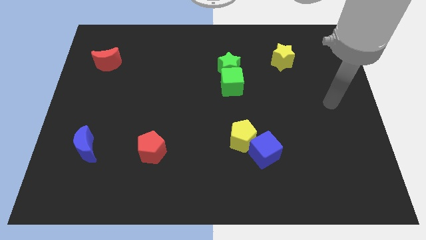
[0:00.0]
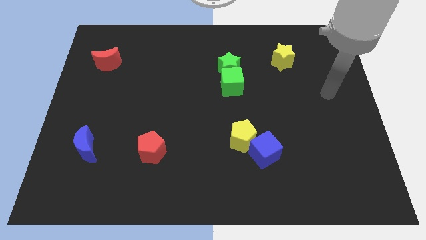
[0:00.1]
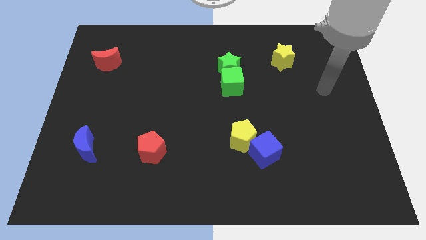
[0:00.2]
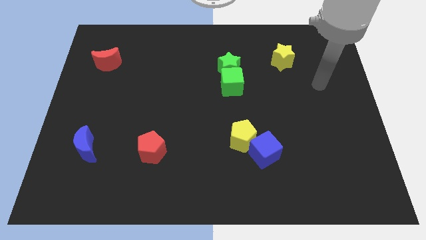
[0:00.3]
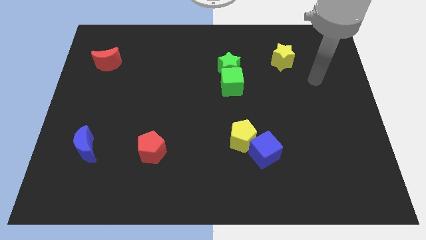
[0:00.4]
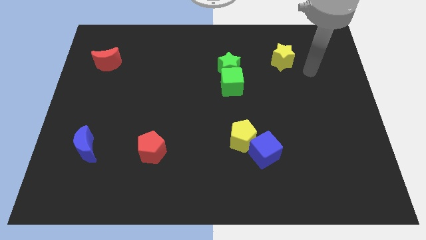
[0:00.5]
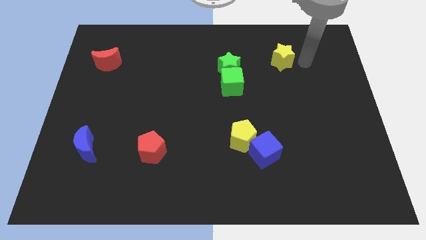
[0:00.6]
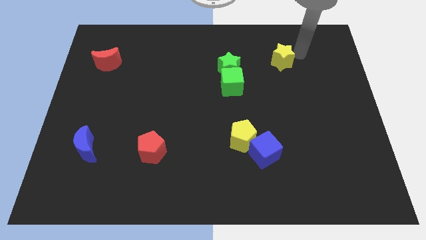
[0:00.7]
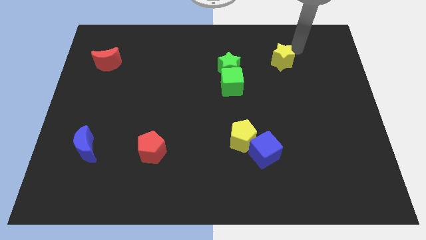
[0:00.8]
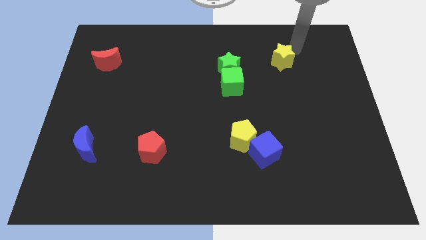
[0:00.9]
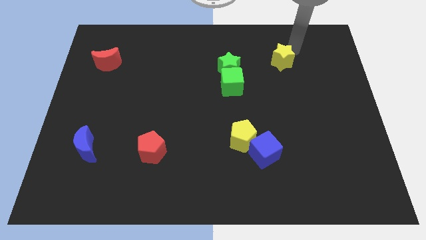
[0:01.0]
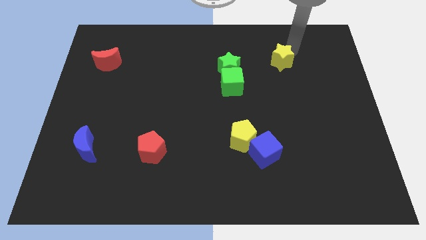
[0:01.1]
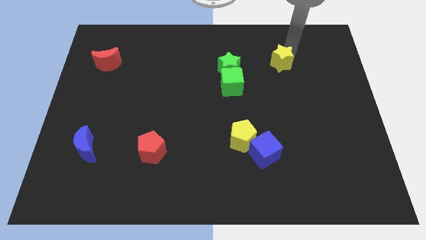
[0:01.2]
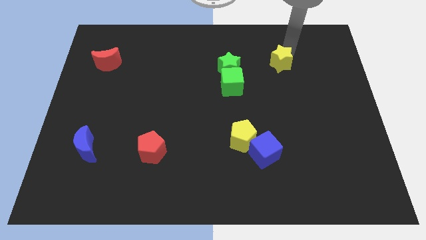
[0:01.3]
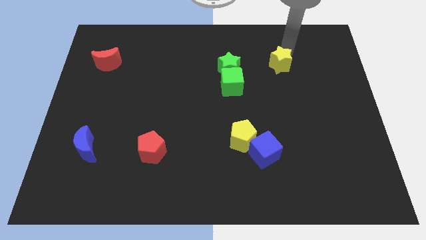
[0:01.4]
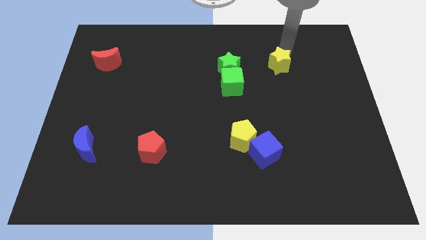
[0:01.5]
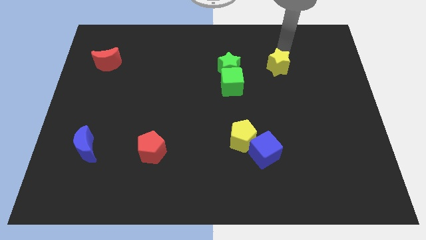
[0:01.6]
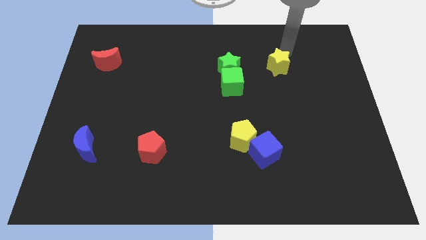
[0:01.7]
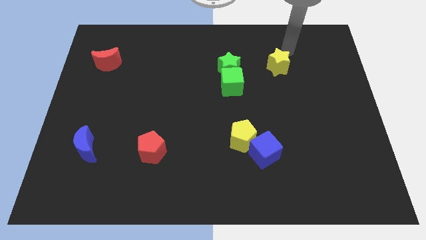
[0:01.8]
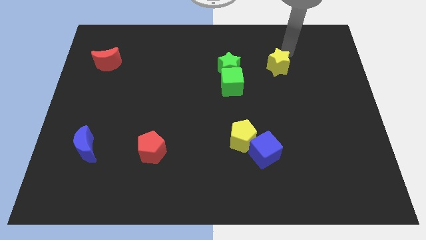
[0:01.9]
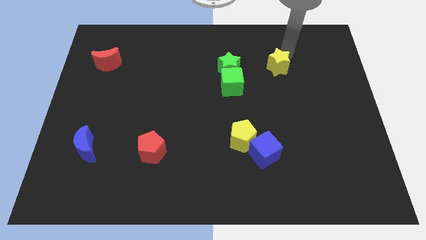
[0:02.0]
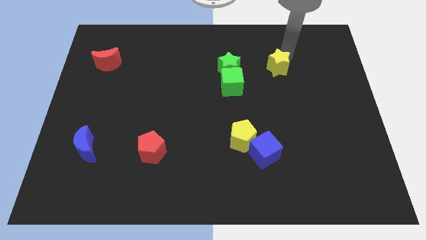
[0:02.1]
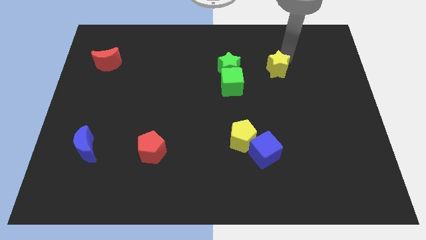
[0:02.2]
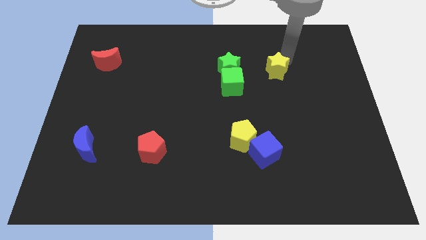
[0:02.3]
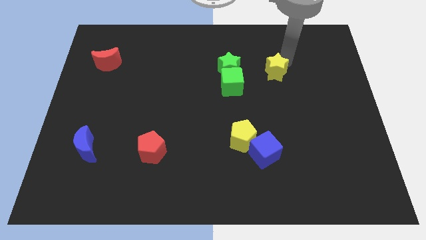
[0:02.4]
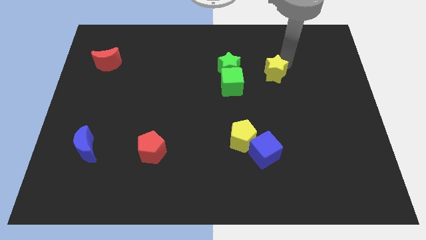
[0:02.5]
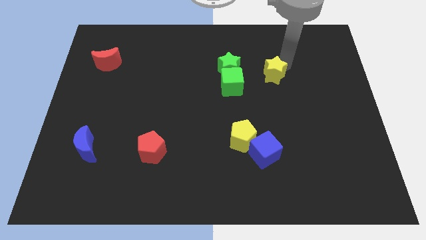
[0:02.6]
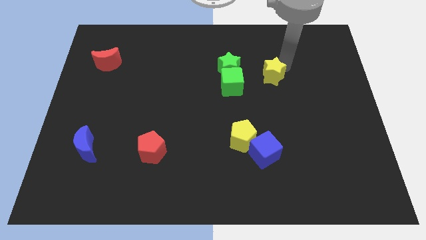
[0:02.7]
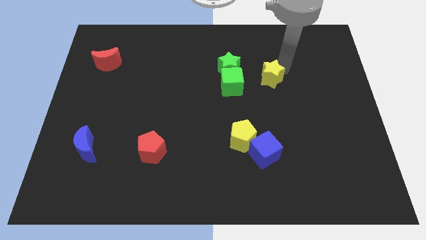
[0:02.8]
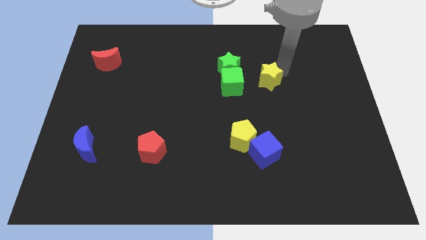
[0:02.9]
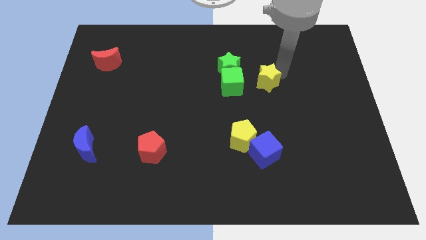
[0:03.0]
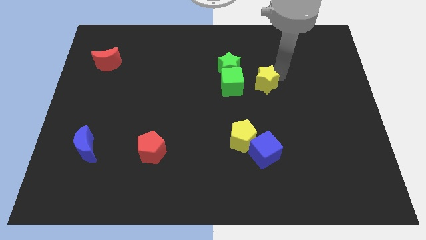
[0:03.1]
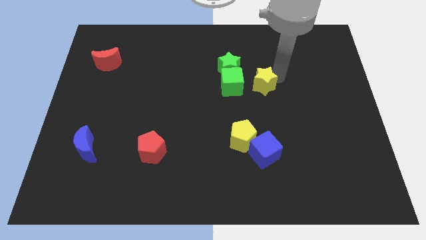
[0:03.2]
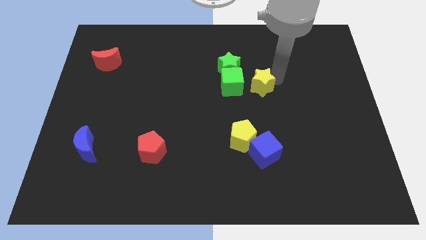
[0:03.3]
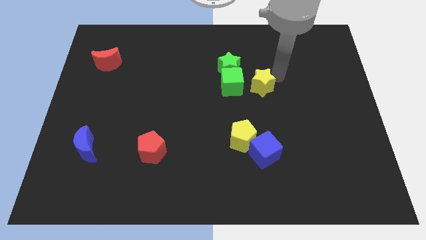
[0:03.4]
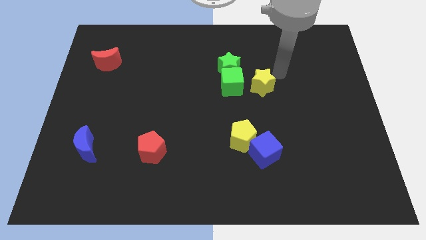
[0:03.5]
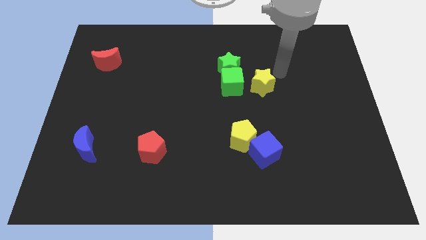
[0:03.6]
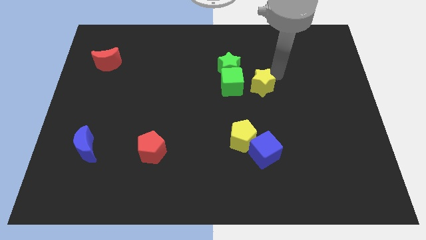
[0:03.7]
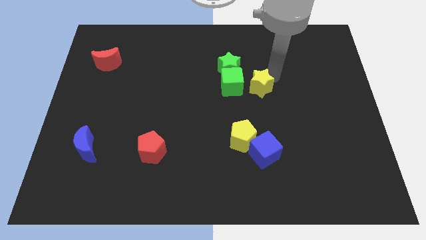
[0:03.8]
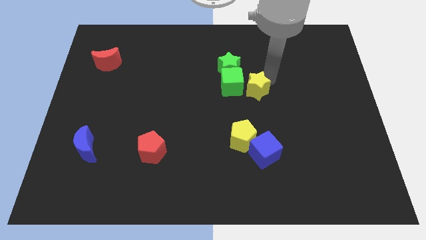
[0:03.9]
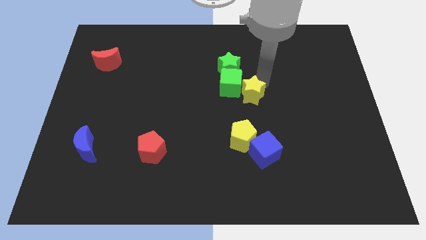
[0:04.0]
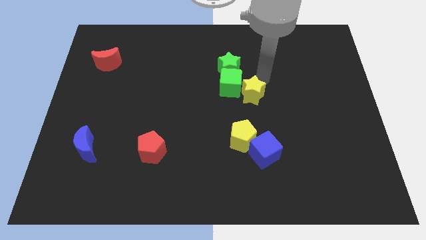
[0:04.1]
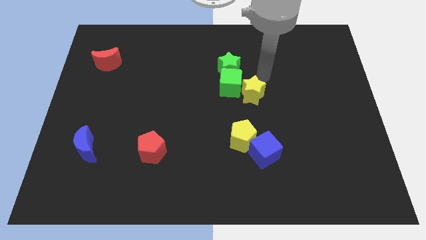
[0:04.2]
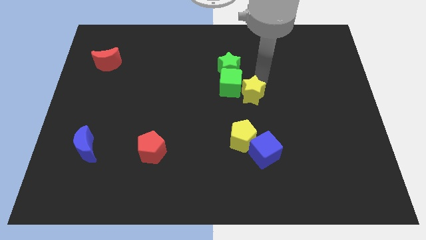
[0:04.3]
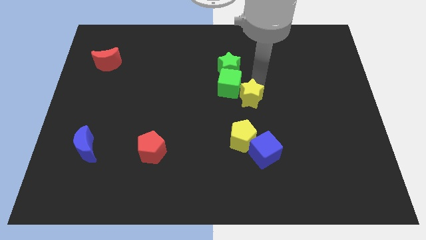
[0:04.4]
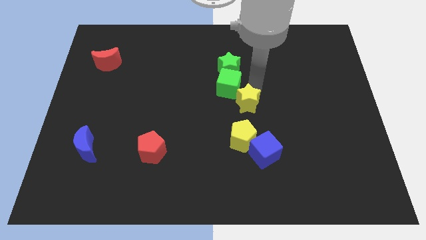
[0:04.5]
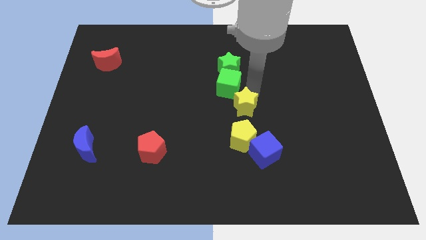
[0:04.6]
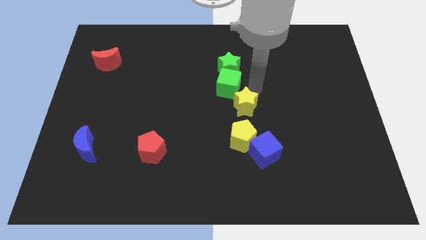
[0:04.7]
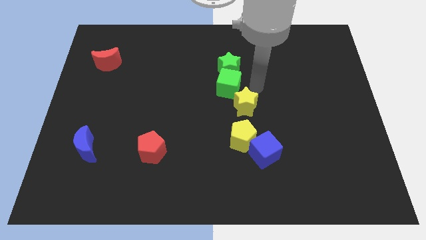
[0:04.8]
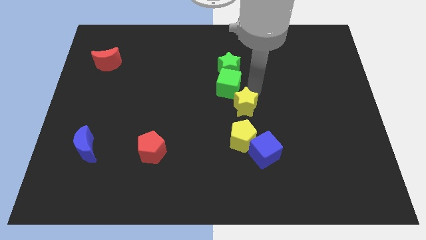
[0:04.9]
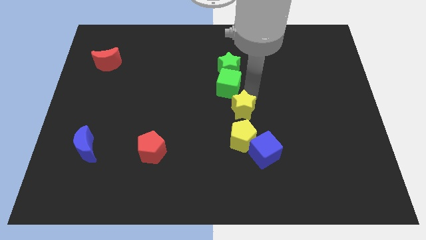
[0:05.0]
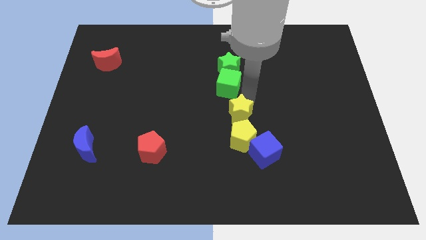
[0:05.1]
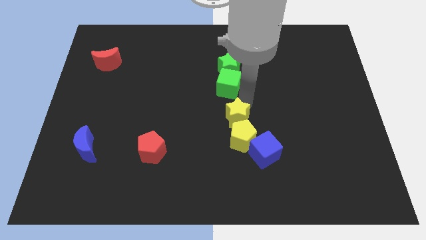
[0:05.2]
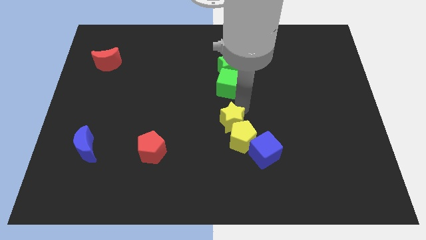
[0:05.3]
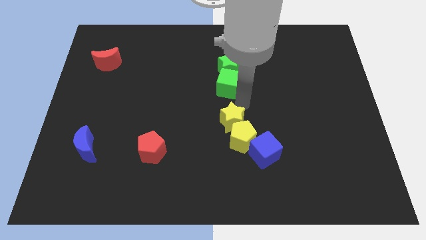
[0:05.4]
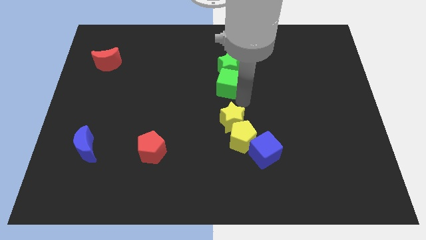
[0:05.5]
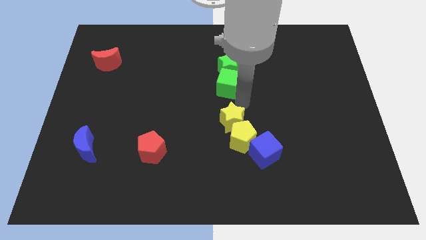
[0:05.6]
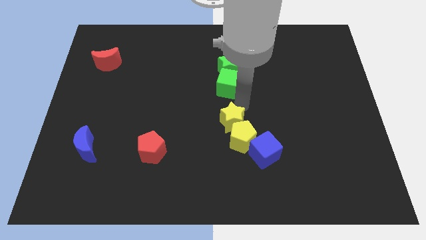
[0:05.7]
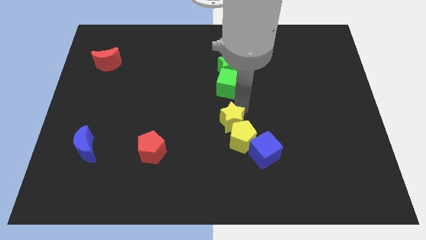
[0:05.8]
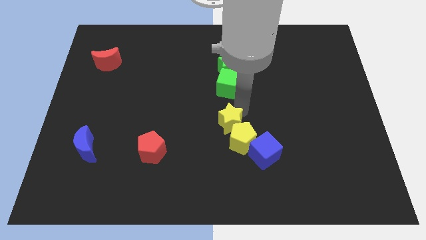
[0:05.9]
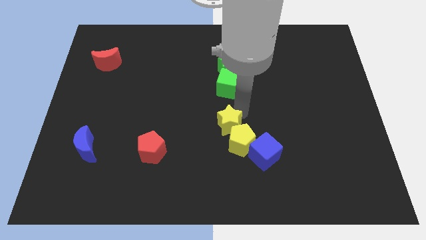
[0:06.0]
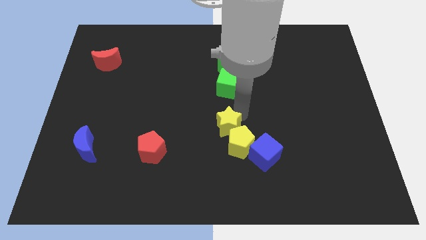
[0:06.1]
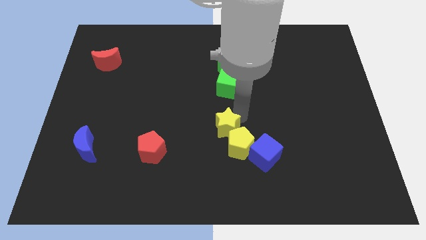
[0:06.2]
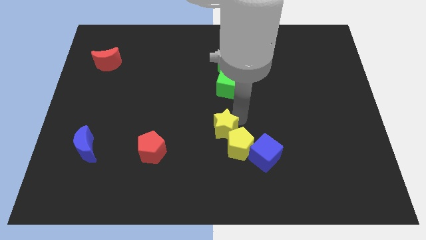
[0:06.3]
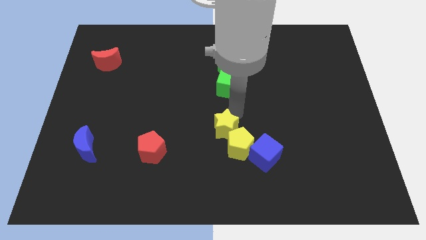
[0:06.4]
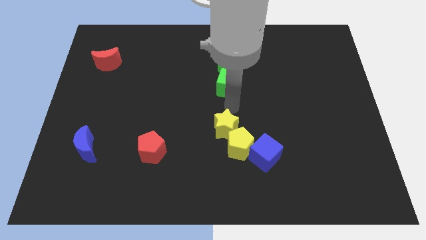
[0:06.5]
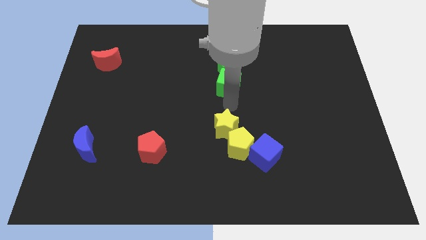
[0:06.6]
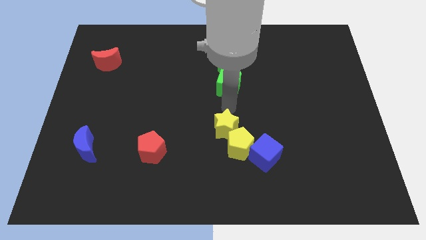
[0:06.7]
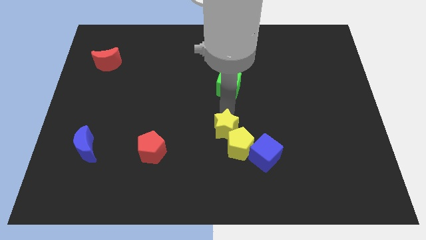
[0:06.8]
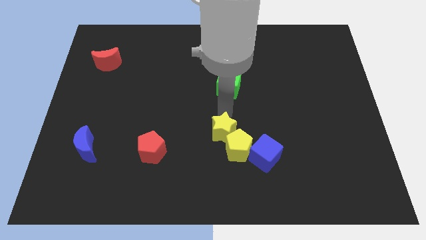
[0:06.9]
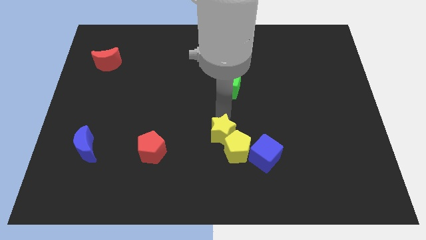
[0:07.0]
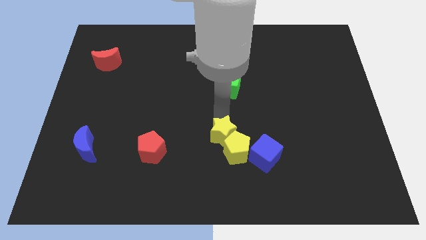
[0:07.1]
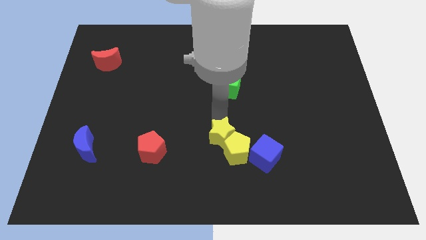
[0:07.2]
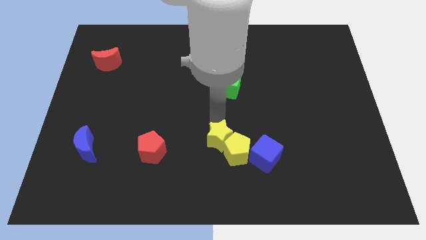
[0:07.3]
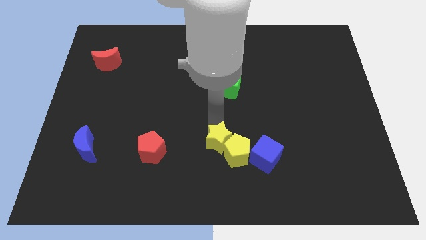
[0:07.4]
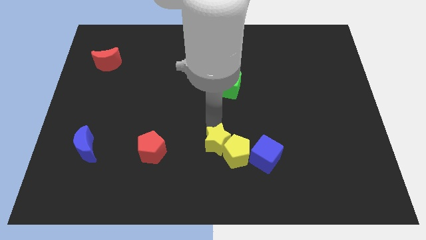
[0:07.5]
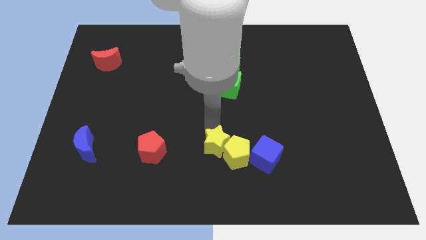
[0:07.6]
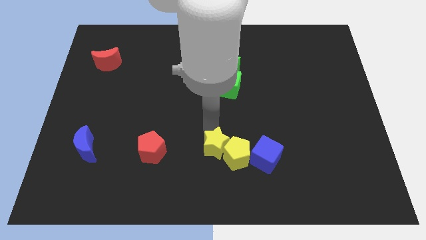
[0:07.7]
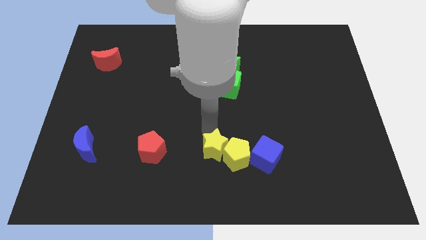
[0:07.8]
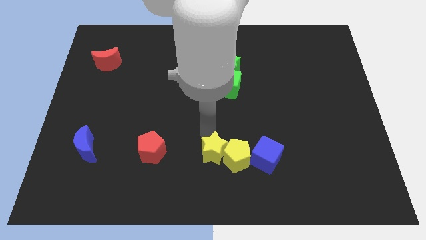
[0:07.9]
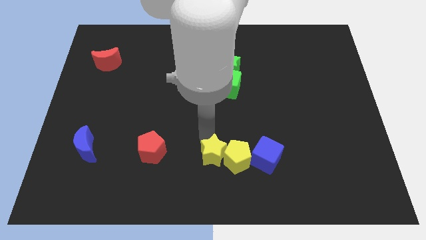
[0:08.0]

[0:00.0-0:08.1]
put the yellow star to the bottom side
